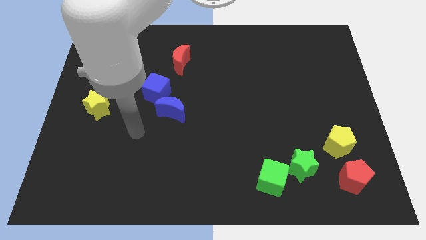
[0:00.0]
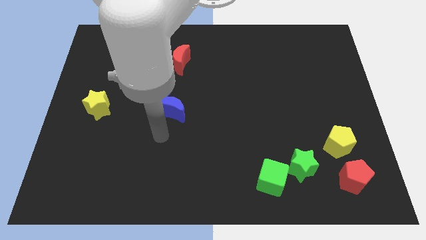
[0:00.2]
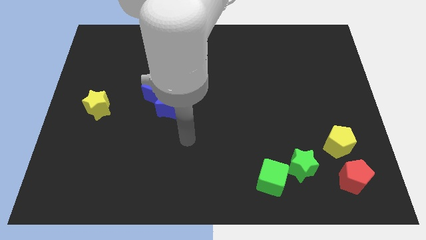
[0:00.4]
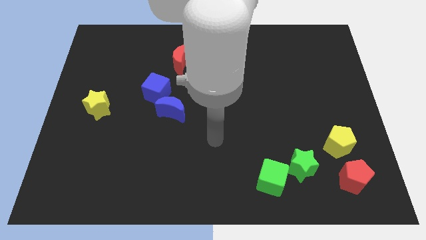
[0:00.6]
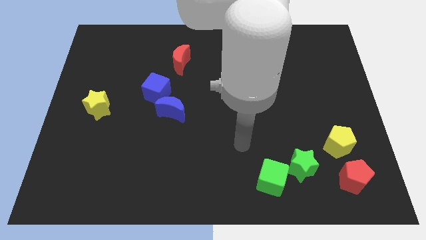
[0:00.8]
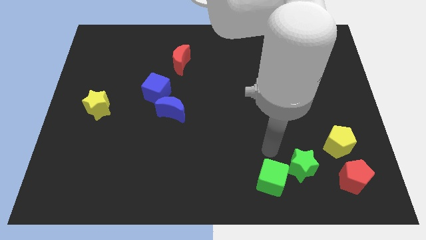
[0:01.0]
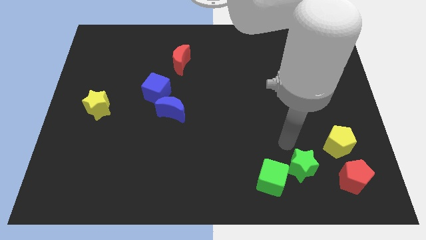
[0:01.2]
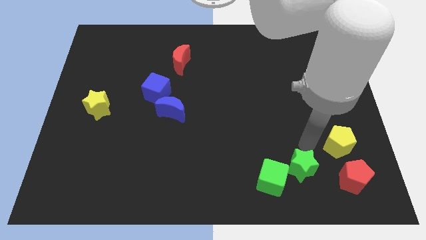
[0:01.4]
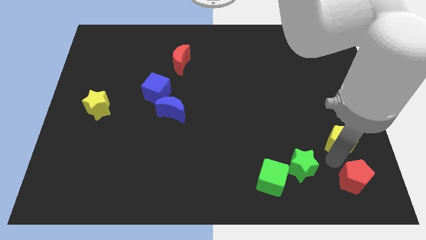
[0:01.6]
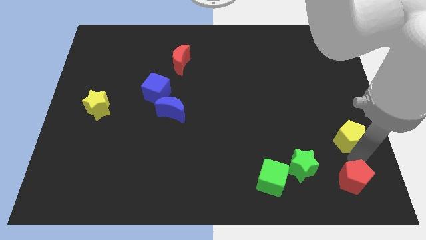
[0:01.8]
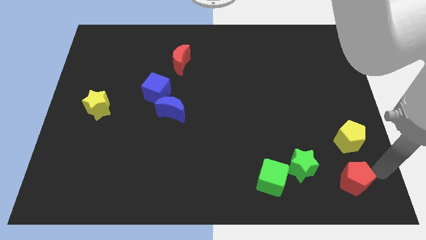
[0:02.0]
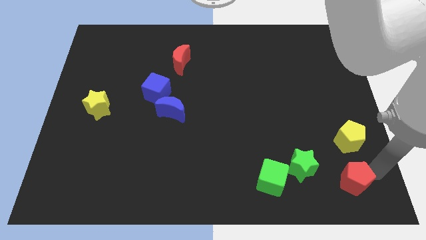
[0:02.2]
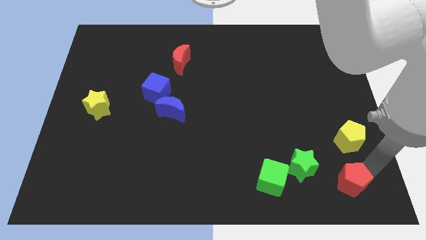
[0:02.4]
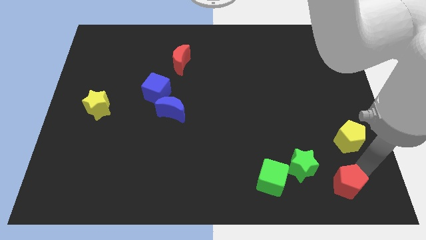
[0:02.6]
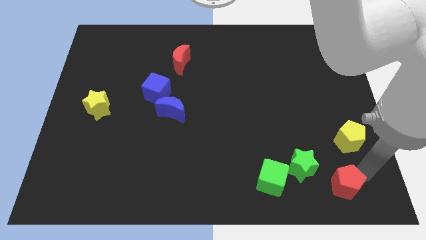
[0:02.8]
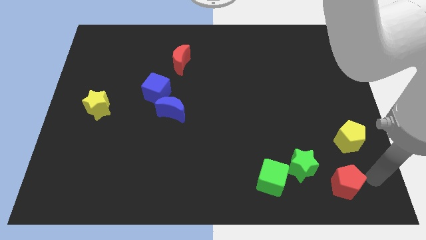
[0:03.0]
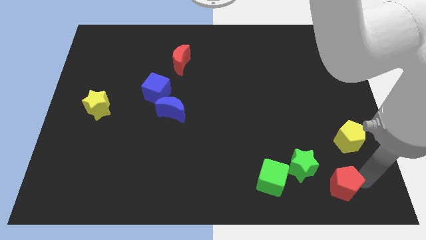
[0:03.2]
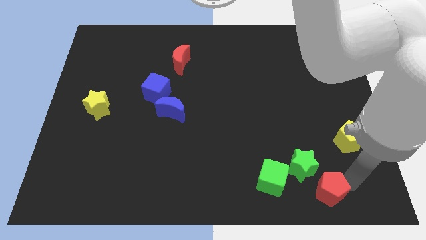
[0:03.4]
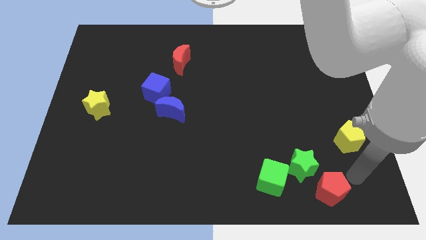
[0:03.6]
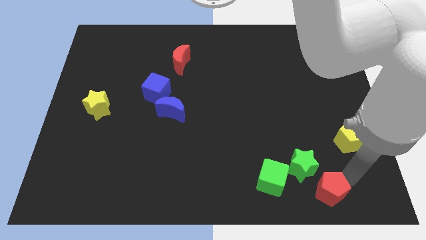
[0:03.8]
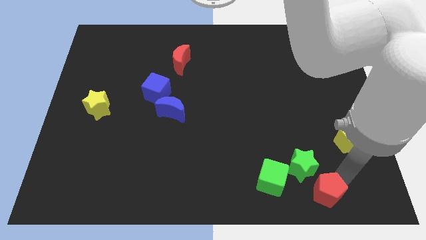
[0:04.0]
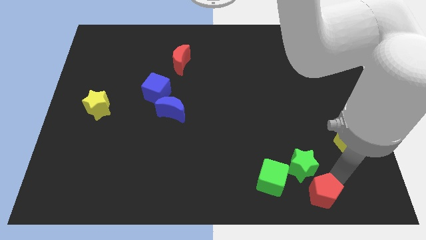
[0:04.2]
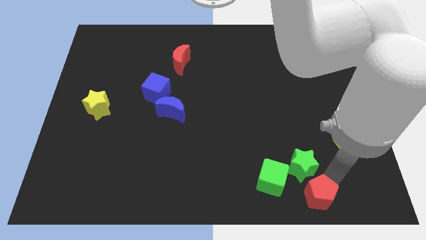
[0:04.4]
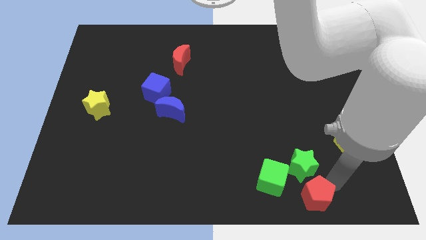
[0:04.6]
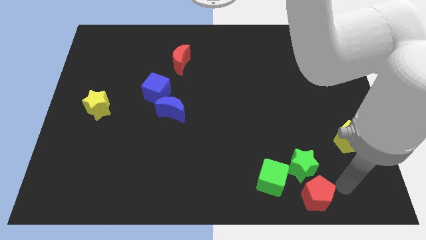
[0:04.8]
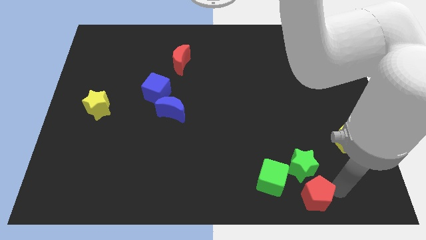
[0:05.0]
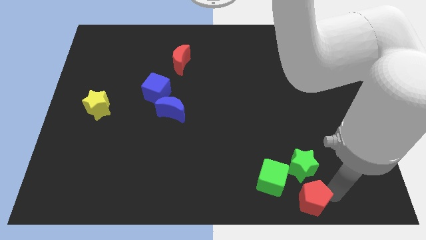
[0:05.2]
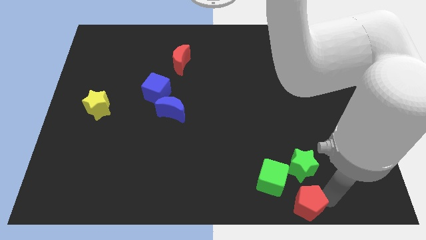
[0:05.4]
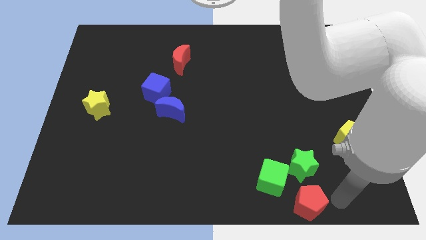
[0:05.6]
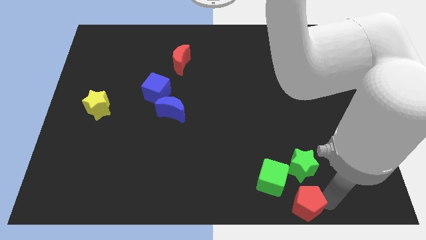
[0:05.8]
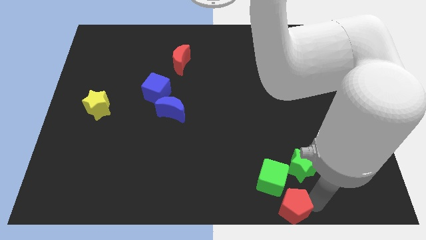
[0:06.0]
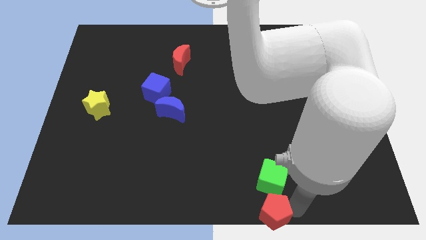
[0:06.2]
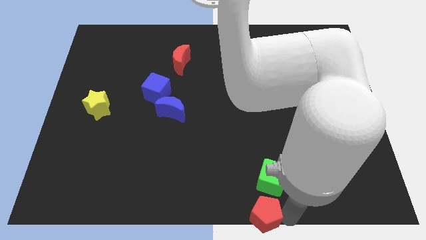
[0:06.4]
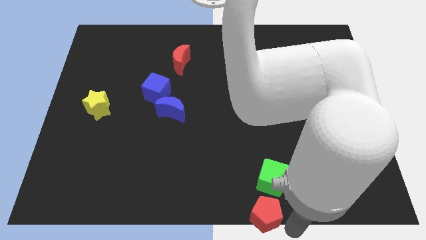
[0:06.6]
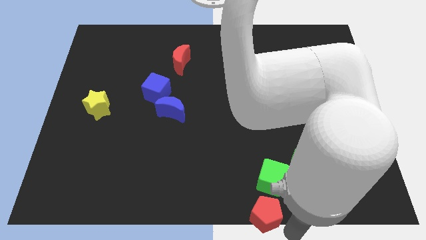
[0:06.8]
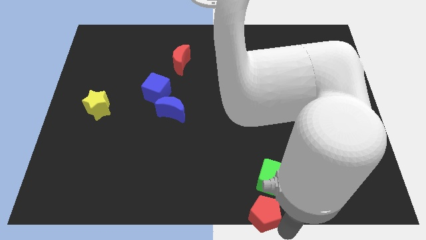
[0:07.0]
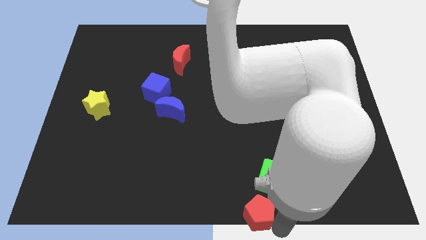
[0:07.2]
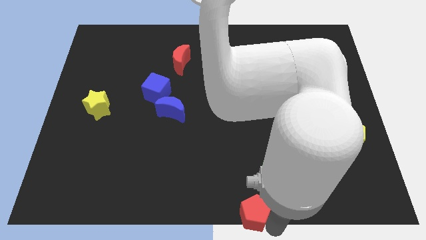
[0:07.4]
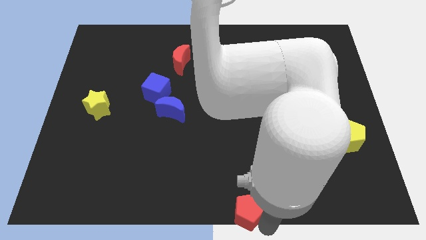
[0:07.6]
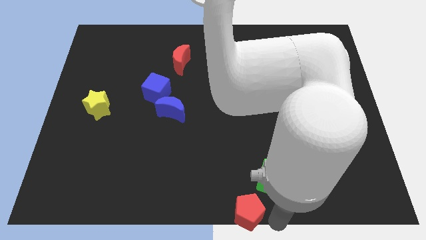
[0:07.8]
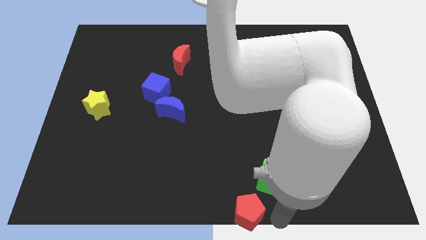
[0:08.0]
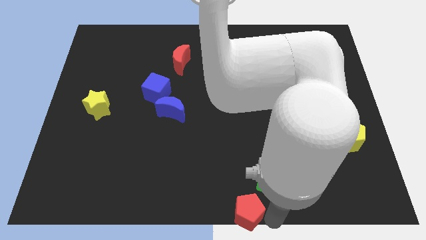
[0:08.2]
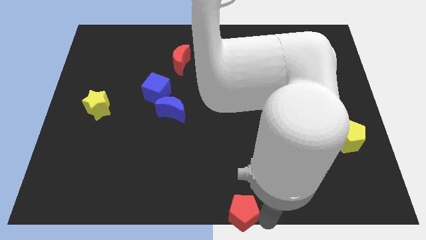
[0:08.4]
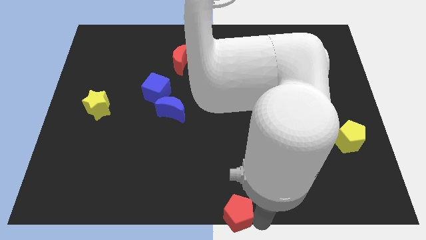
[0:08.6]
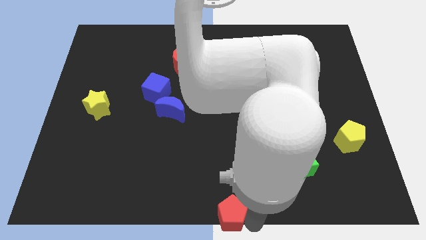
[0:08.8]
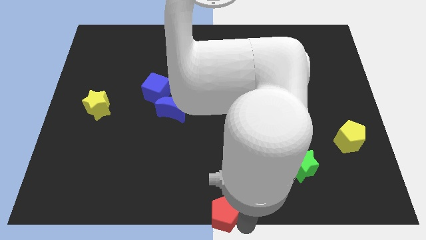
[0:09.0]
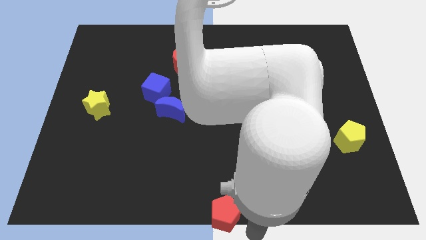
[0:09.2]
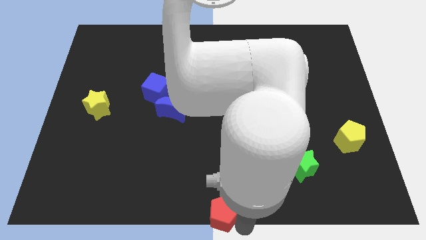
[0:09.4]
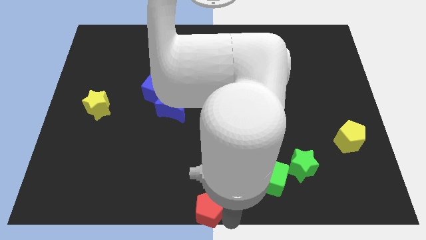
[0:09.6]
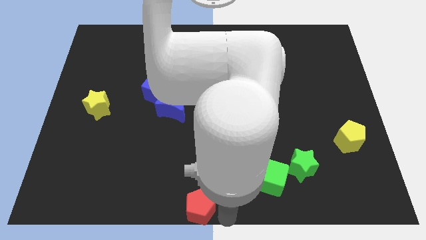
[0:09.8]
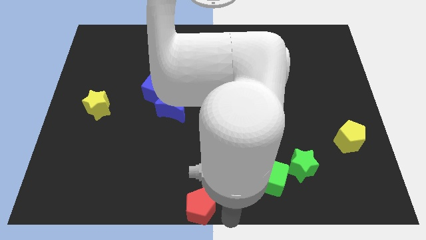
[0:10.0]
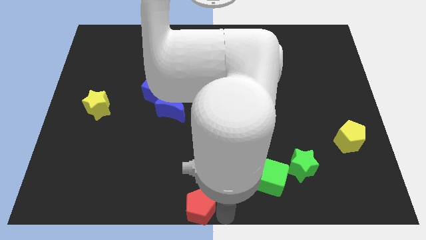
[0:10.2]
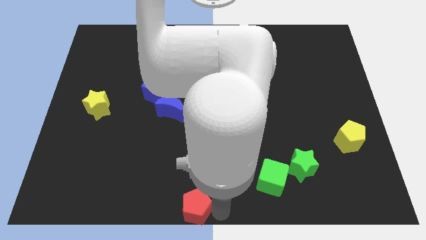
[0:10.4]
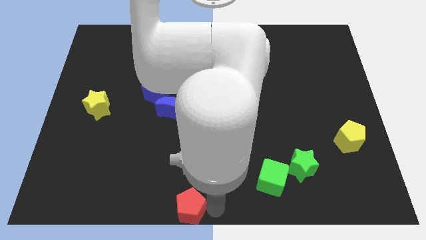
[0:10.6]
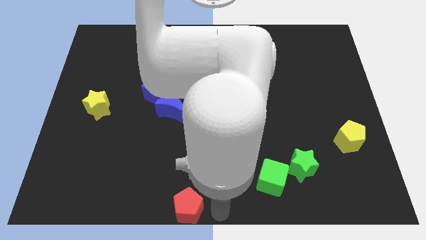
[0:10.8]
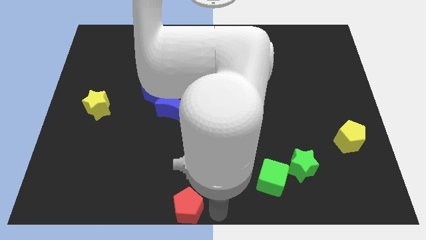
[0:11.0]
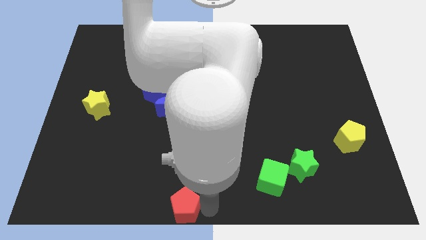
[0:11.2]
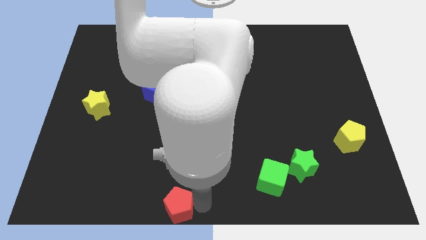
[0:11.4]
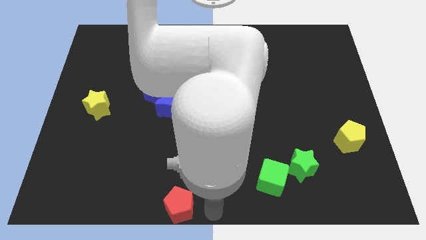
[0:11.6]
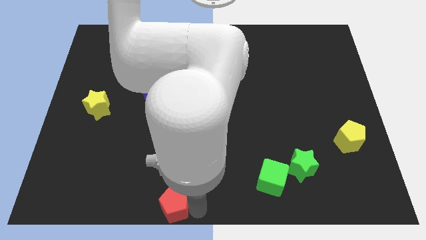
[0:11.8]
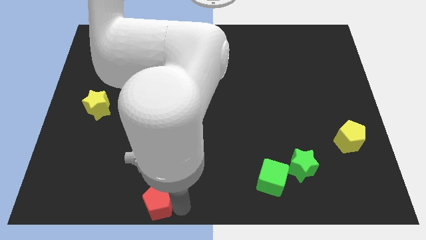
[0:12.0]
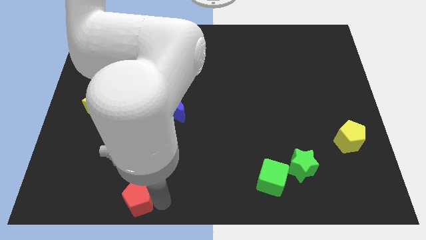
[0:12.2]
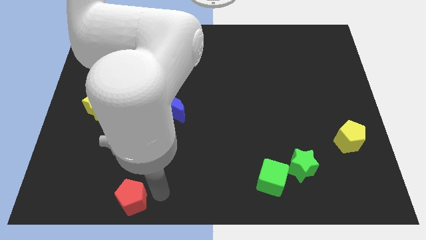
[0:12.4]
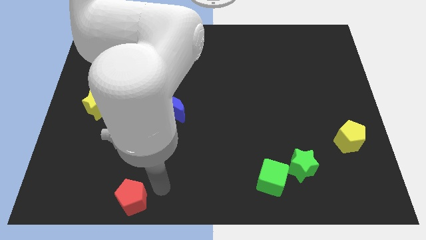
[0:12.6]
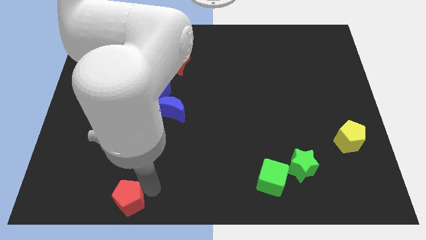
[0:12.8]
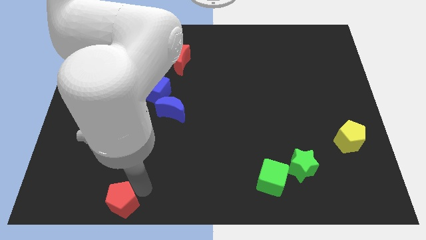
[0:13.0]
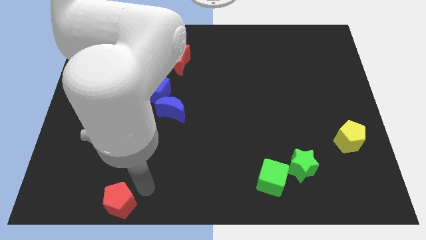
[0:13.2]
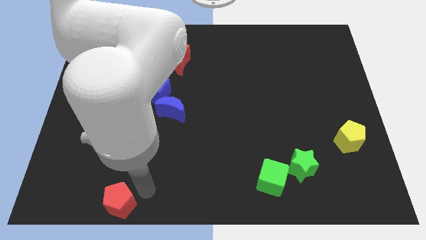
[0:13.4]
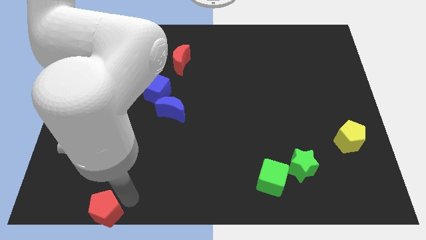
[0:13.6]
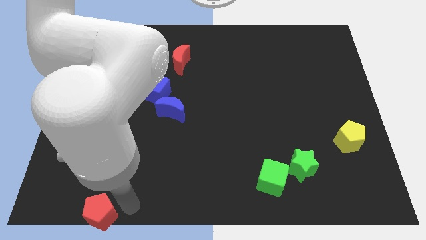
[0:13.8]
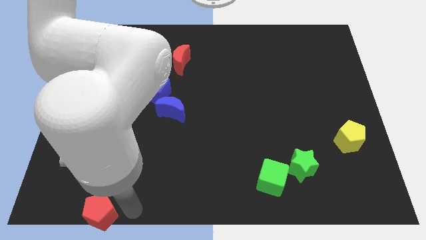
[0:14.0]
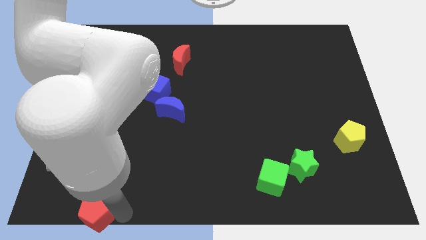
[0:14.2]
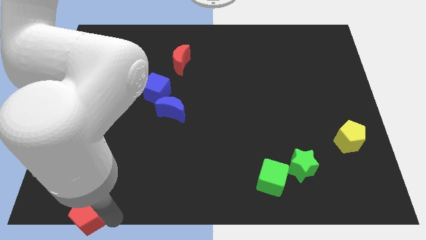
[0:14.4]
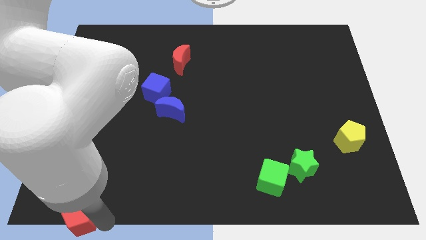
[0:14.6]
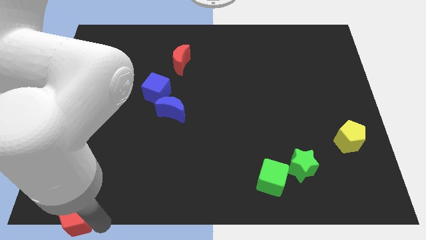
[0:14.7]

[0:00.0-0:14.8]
slide the red pentagon to the lower left corner

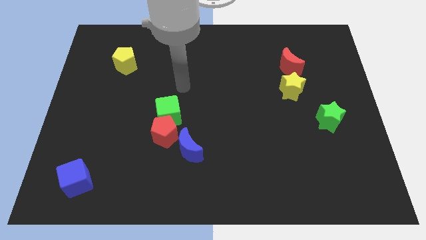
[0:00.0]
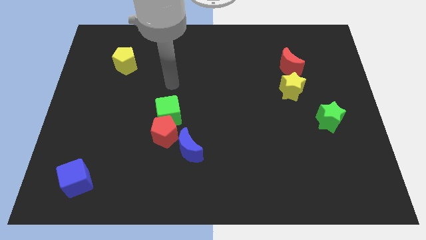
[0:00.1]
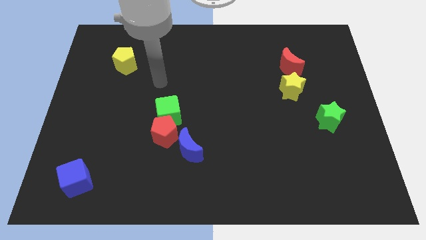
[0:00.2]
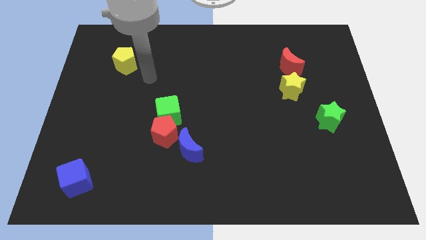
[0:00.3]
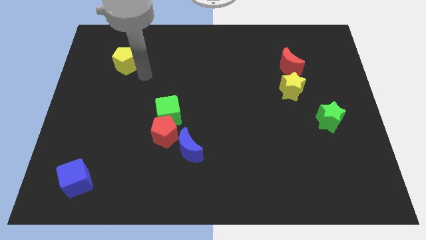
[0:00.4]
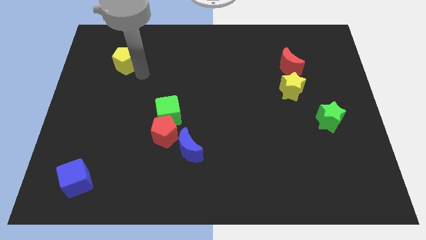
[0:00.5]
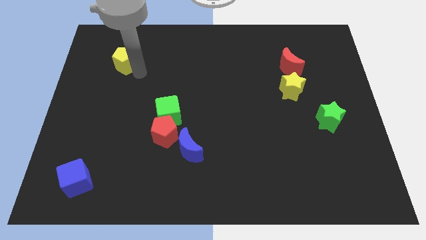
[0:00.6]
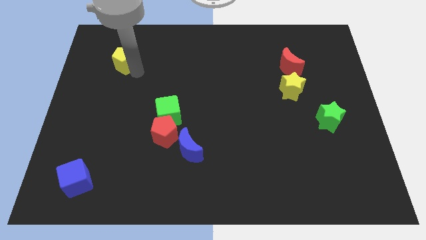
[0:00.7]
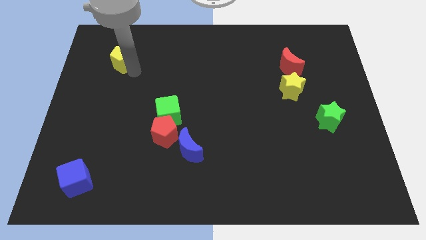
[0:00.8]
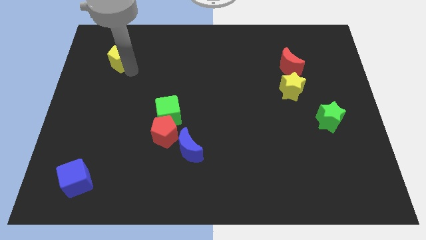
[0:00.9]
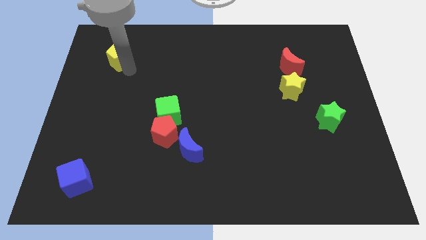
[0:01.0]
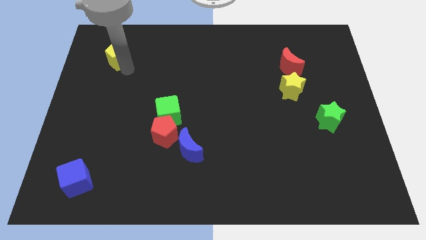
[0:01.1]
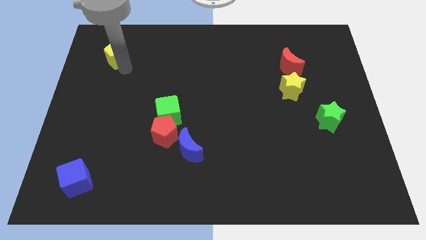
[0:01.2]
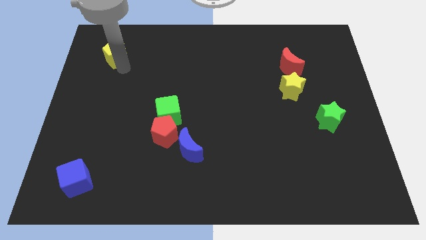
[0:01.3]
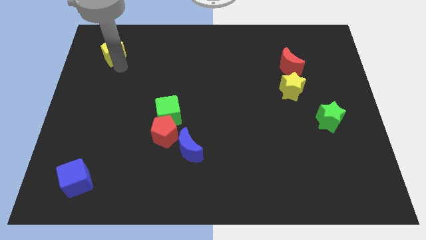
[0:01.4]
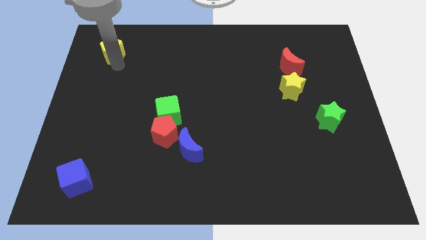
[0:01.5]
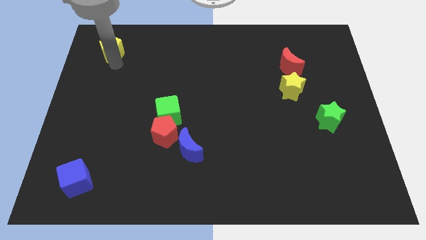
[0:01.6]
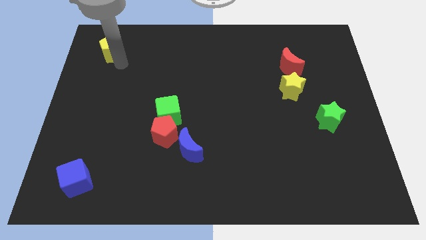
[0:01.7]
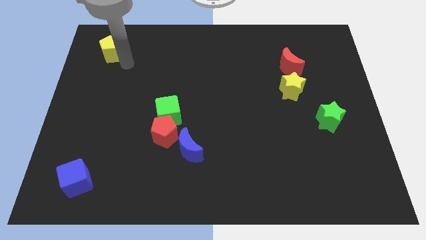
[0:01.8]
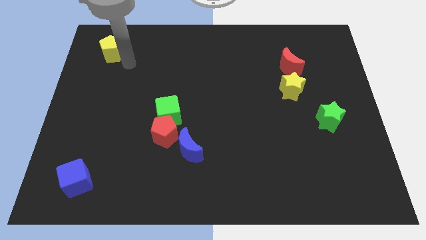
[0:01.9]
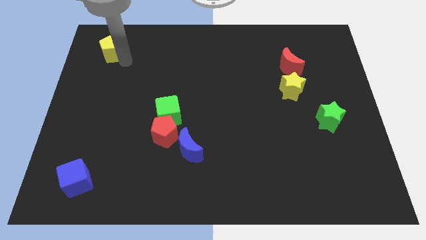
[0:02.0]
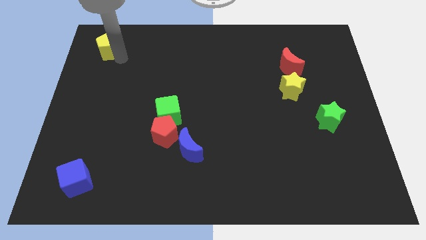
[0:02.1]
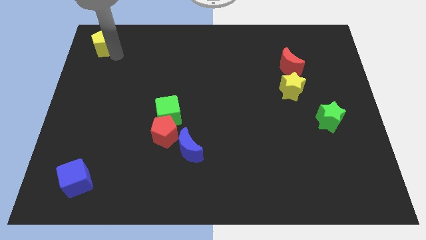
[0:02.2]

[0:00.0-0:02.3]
move the yellow pentagon to the top left of the board
